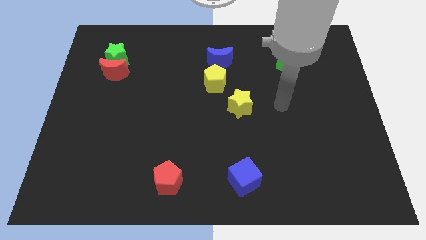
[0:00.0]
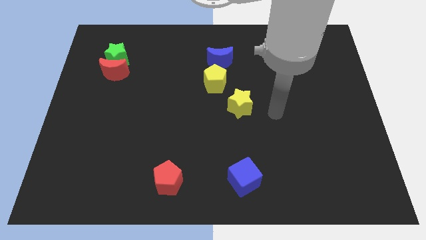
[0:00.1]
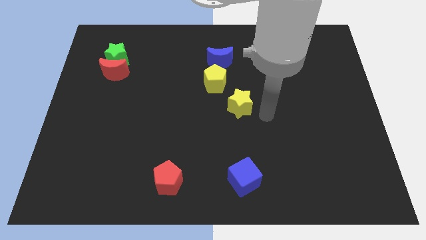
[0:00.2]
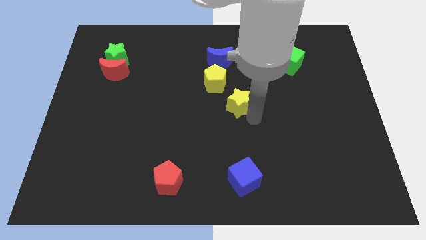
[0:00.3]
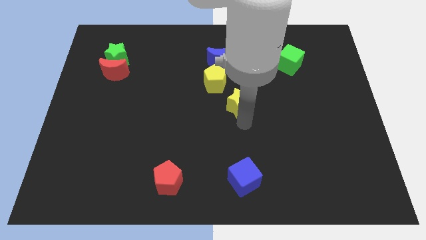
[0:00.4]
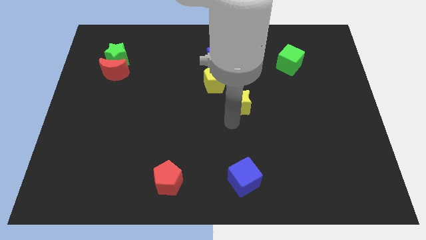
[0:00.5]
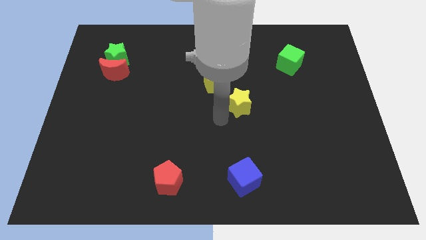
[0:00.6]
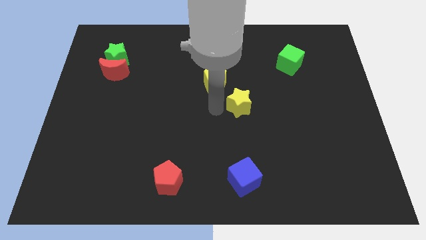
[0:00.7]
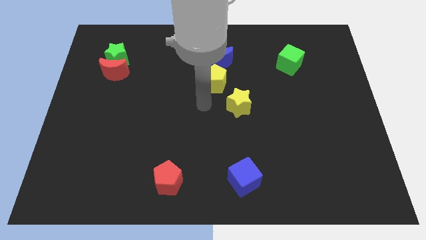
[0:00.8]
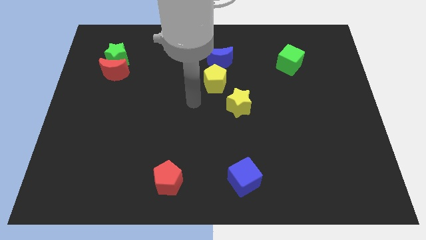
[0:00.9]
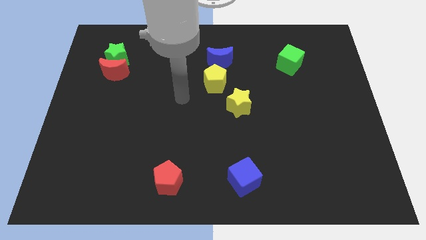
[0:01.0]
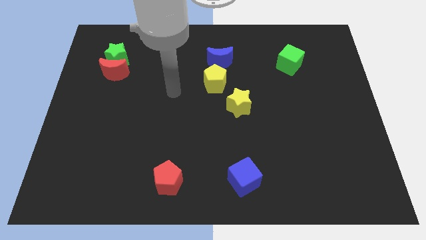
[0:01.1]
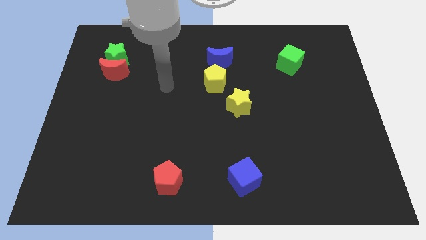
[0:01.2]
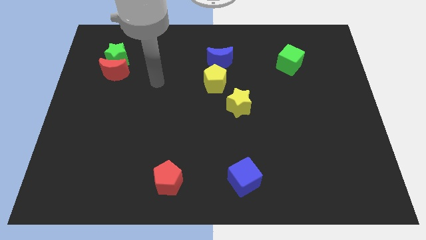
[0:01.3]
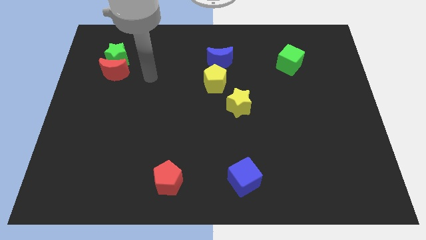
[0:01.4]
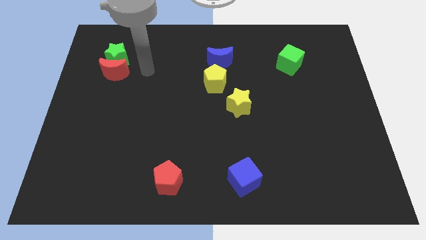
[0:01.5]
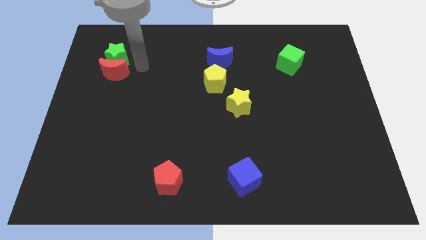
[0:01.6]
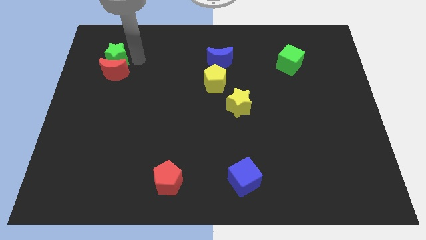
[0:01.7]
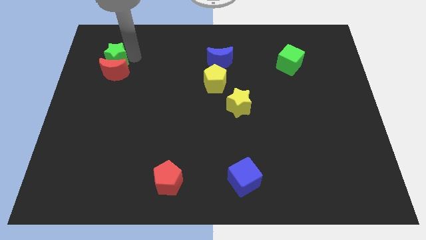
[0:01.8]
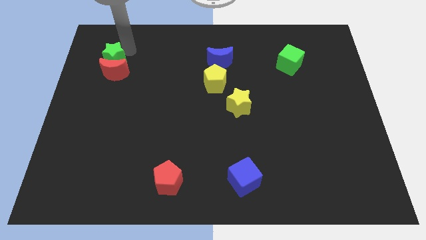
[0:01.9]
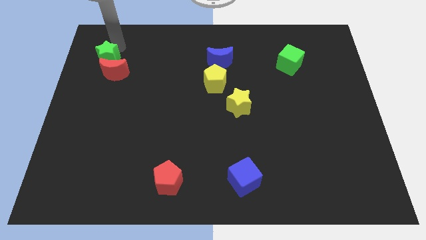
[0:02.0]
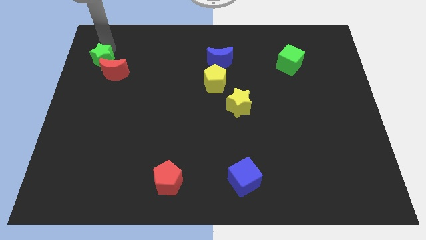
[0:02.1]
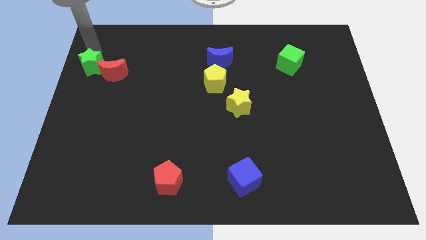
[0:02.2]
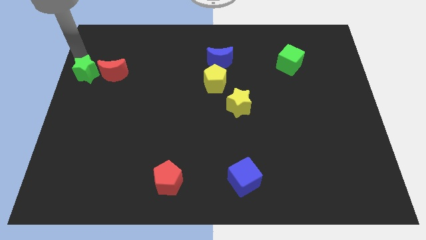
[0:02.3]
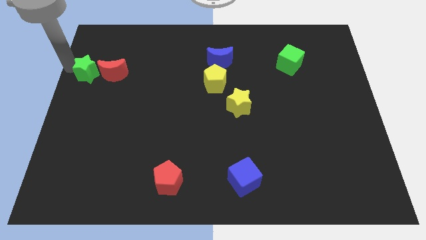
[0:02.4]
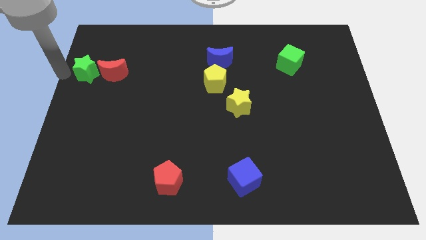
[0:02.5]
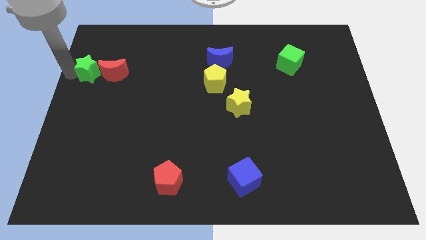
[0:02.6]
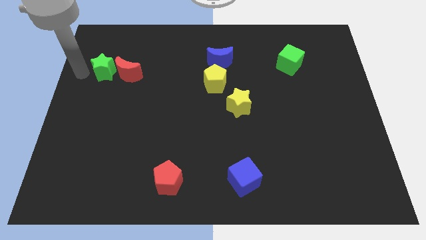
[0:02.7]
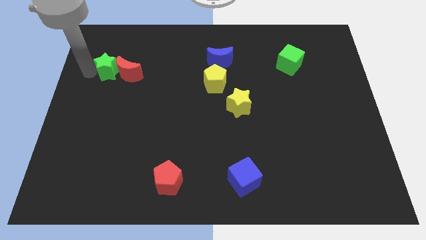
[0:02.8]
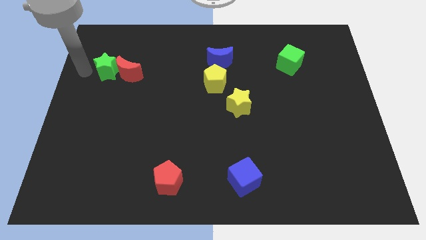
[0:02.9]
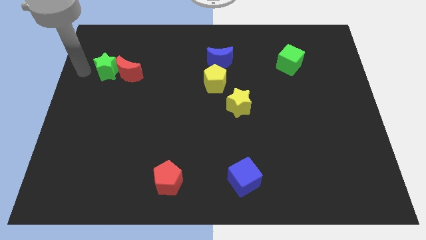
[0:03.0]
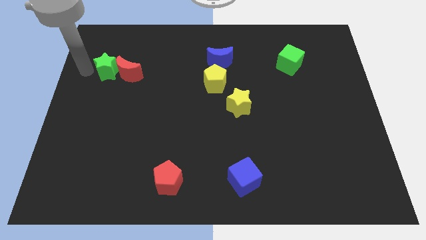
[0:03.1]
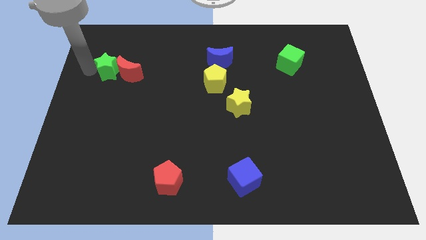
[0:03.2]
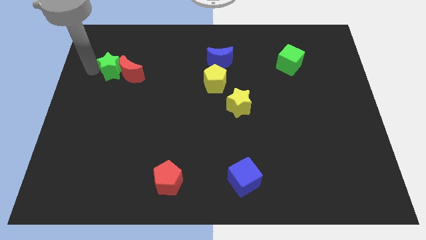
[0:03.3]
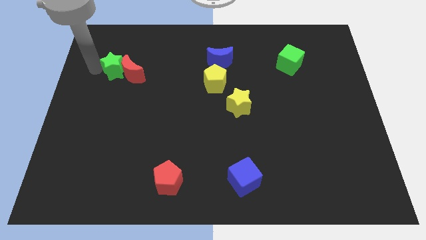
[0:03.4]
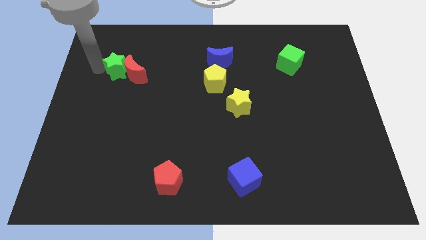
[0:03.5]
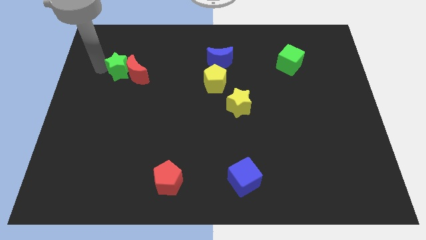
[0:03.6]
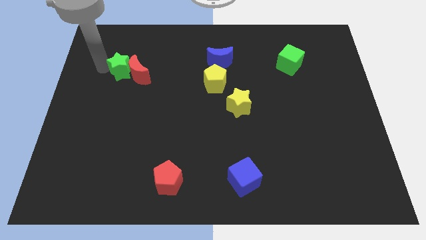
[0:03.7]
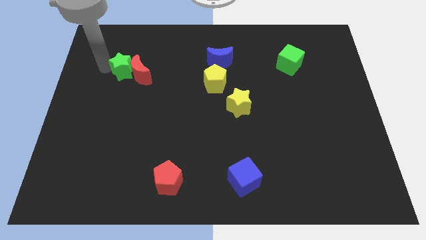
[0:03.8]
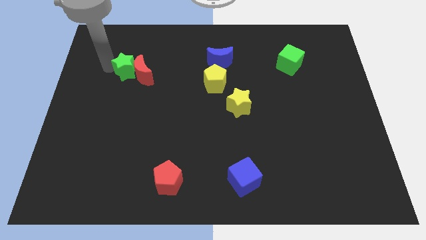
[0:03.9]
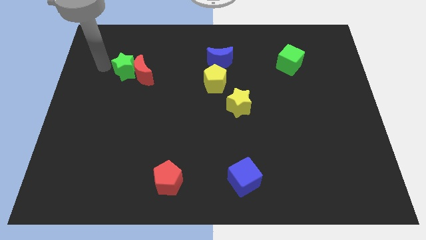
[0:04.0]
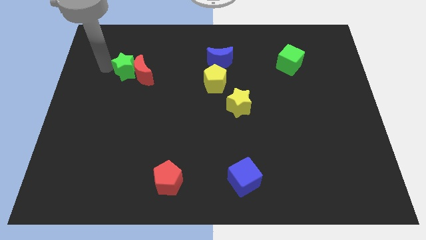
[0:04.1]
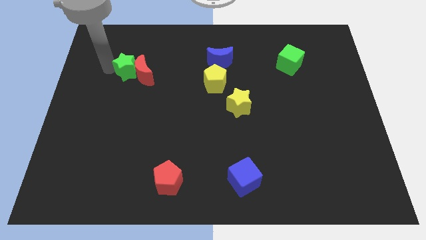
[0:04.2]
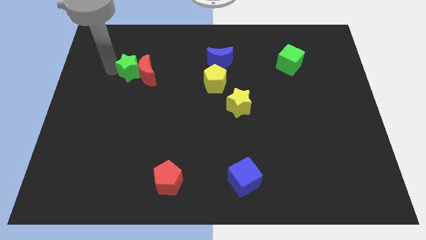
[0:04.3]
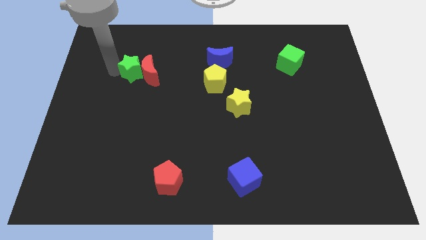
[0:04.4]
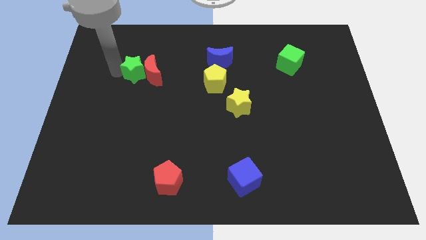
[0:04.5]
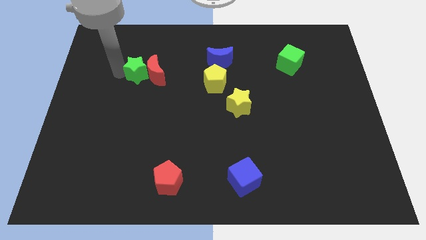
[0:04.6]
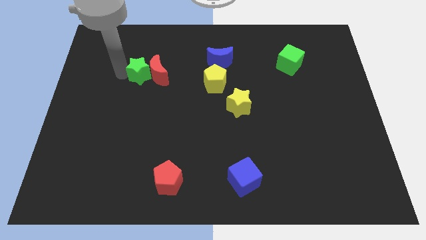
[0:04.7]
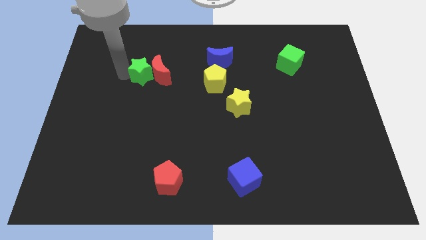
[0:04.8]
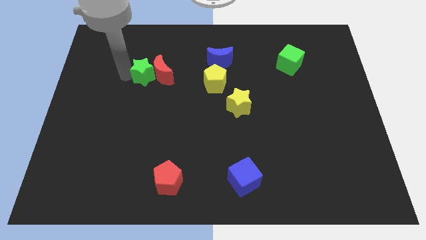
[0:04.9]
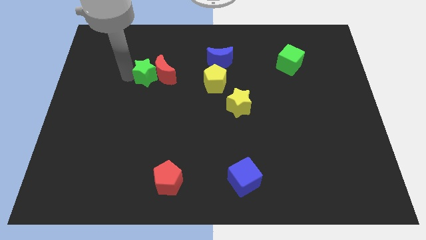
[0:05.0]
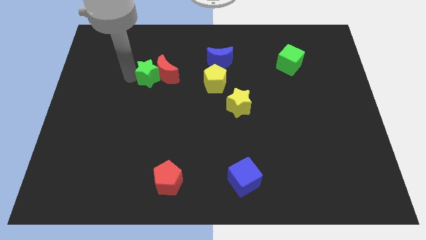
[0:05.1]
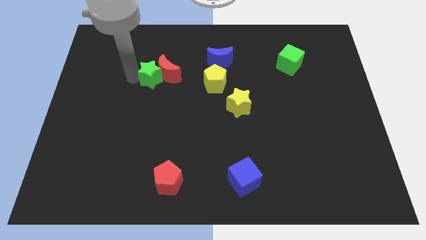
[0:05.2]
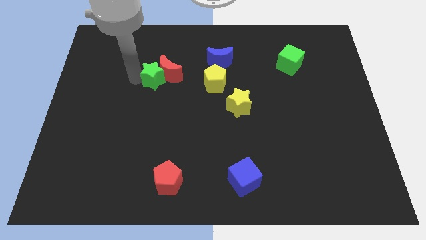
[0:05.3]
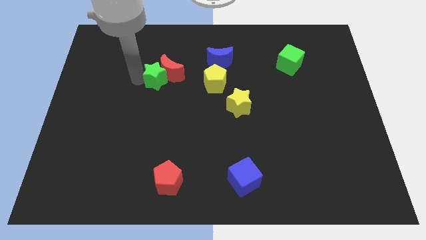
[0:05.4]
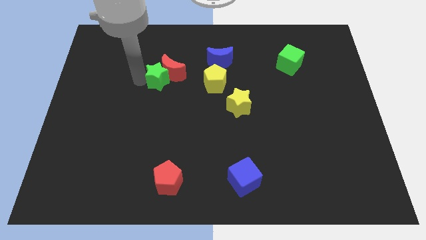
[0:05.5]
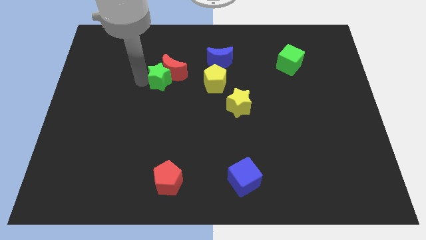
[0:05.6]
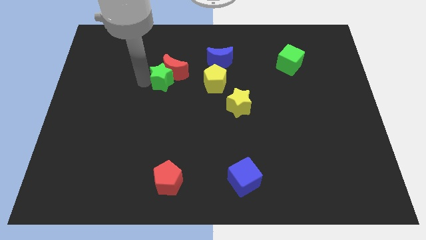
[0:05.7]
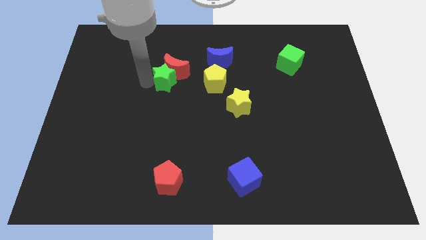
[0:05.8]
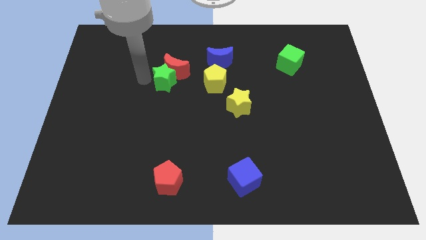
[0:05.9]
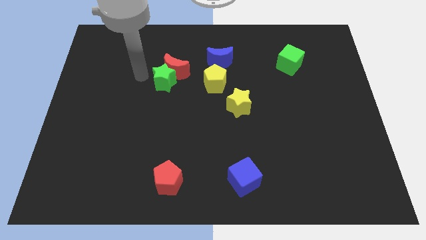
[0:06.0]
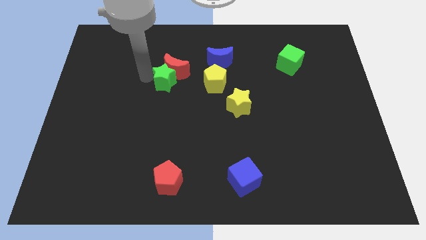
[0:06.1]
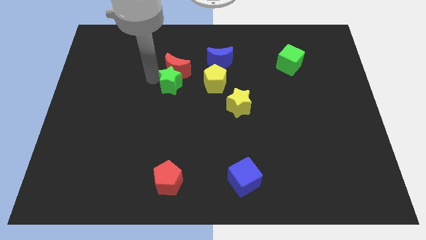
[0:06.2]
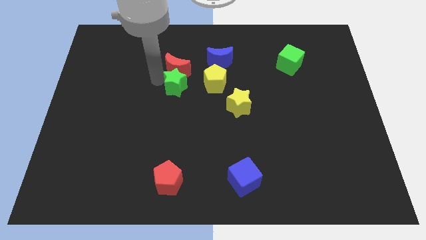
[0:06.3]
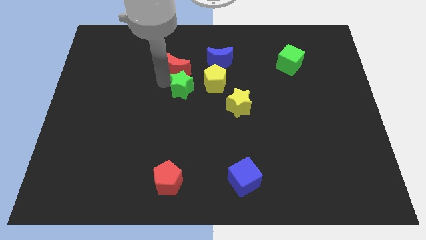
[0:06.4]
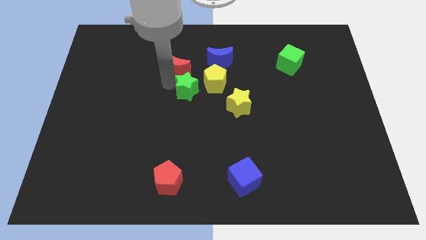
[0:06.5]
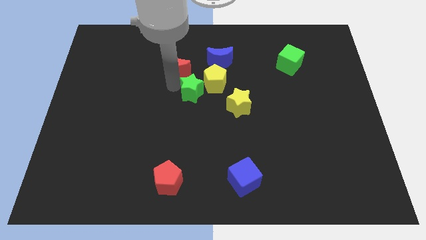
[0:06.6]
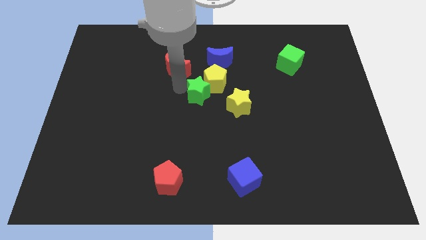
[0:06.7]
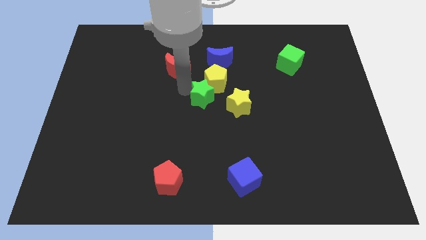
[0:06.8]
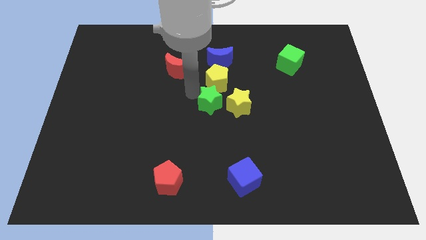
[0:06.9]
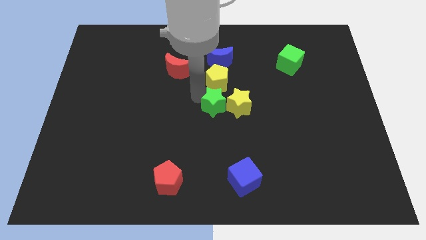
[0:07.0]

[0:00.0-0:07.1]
push the green star close to the yellow star

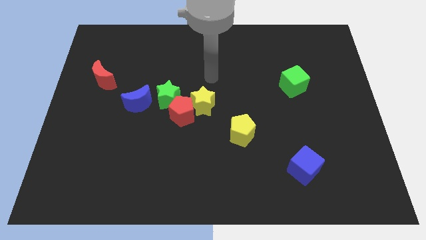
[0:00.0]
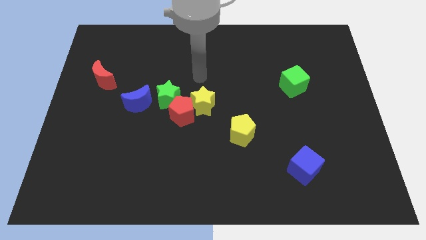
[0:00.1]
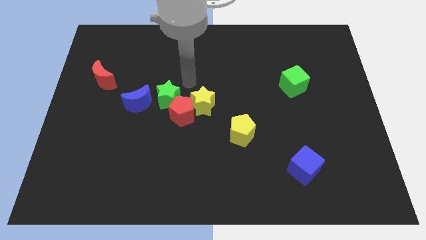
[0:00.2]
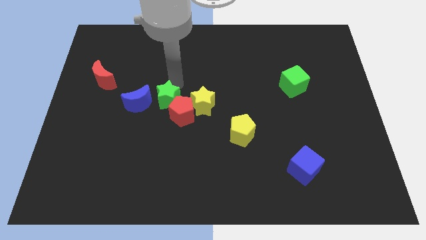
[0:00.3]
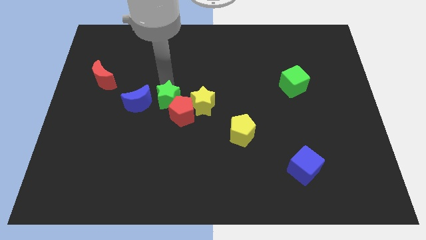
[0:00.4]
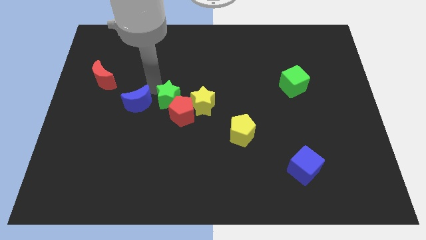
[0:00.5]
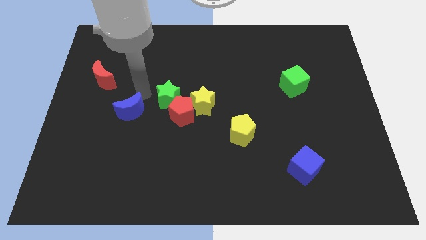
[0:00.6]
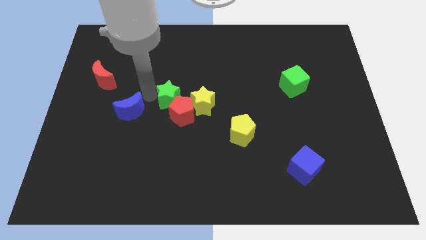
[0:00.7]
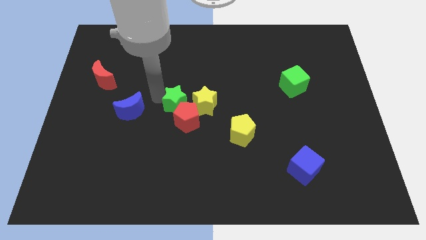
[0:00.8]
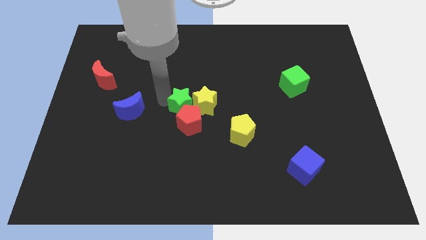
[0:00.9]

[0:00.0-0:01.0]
slide the green star next to the yellow star
